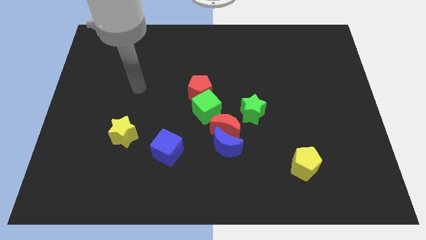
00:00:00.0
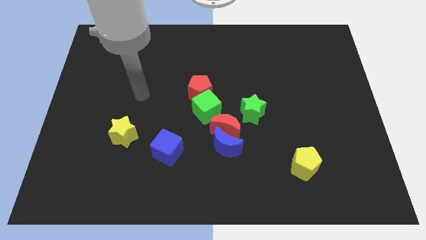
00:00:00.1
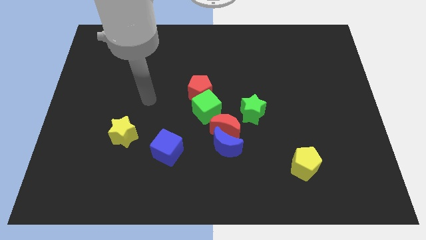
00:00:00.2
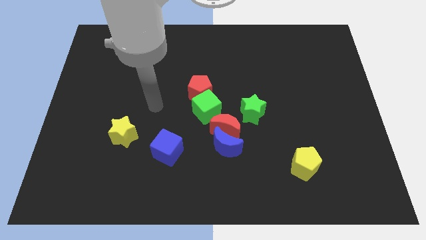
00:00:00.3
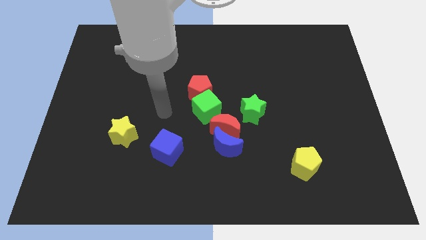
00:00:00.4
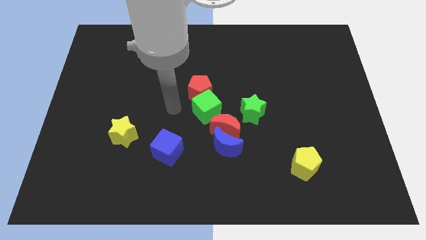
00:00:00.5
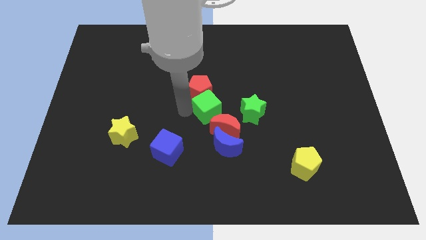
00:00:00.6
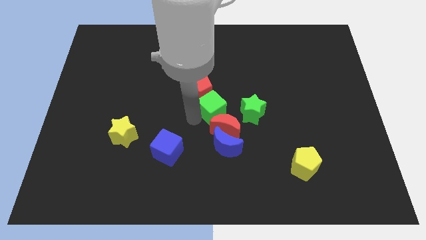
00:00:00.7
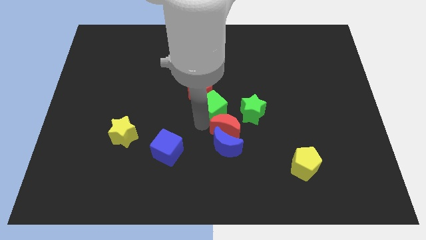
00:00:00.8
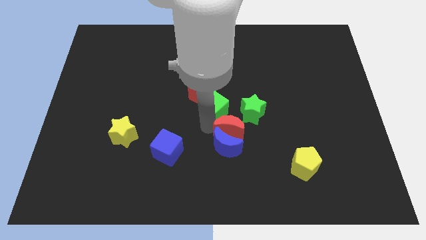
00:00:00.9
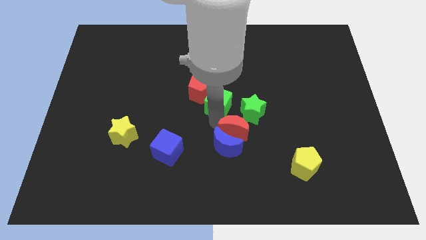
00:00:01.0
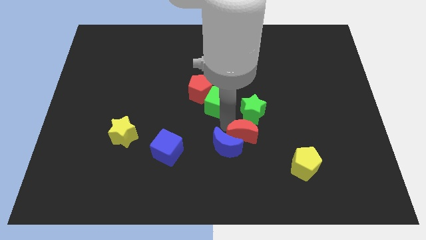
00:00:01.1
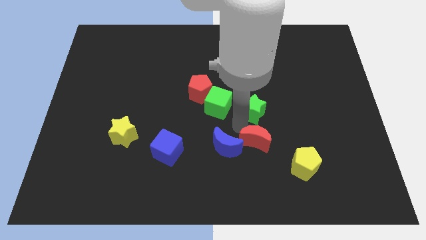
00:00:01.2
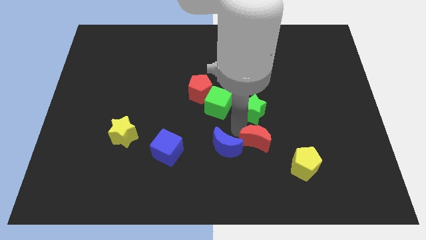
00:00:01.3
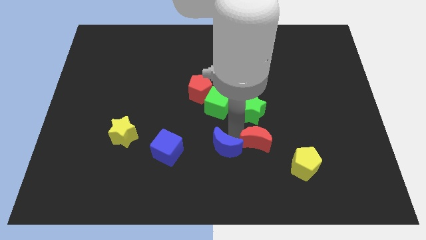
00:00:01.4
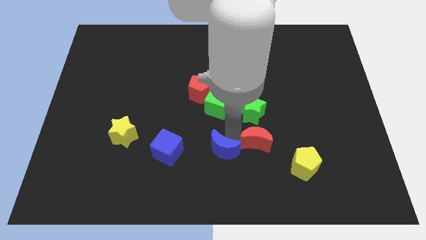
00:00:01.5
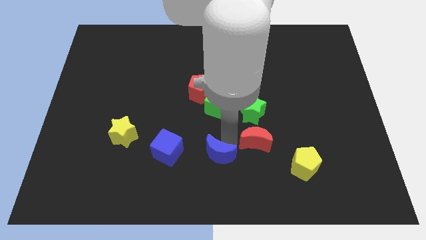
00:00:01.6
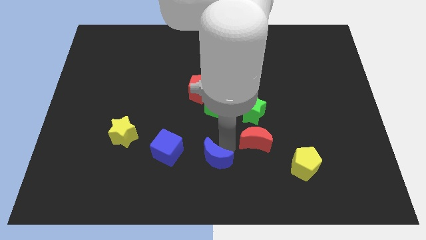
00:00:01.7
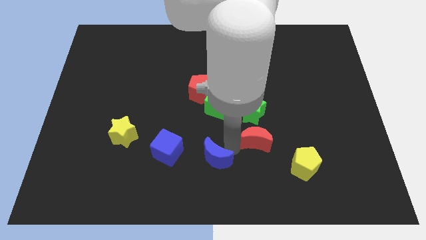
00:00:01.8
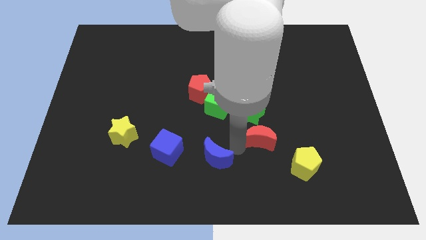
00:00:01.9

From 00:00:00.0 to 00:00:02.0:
separate the blue moon from the red moon

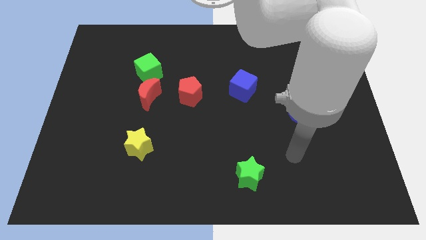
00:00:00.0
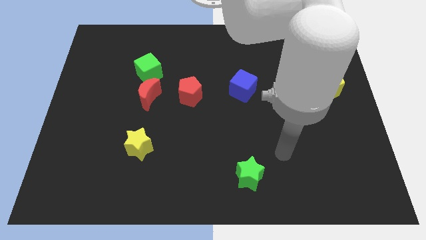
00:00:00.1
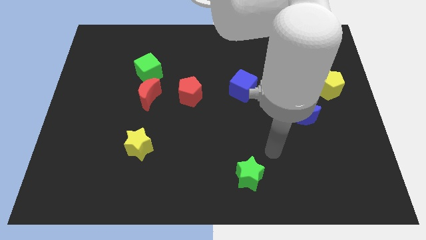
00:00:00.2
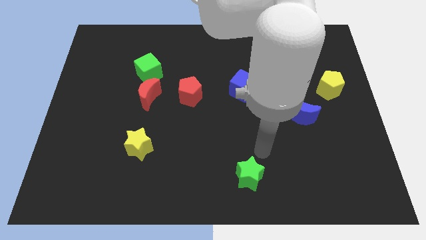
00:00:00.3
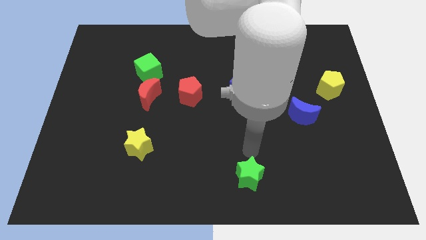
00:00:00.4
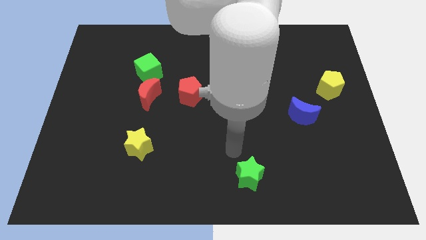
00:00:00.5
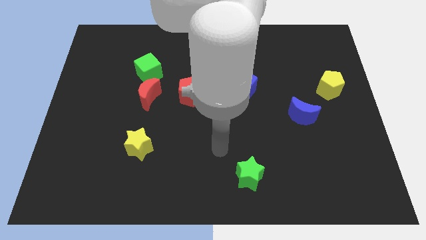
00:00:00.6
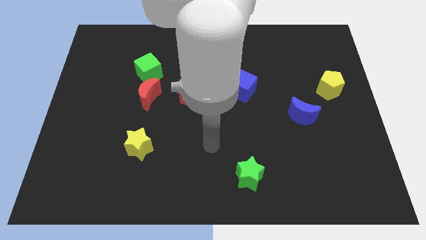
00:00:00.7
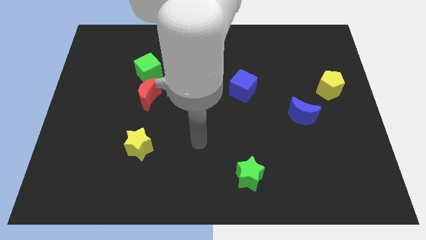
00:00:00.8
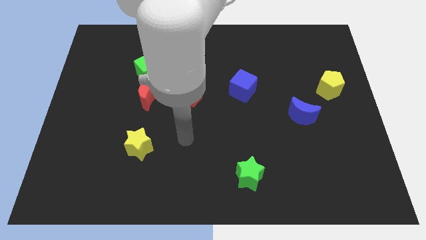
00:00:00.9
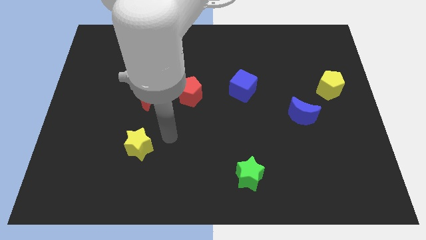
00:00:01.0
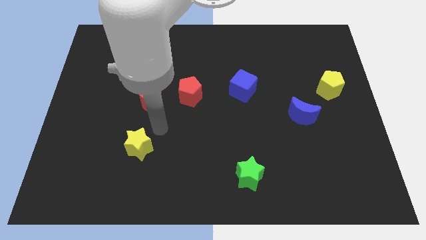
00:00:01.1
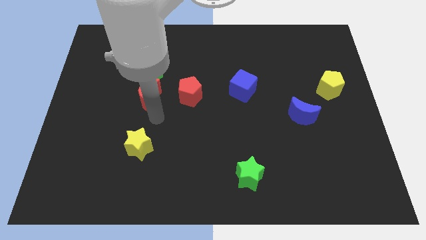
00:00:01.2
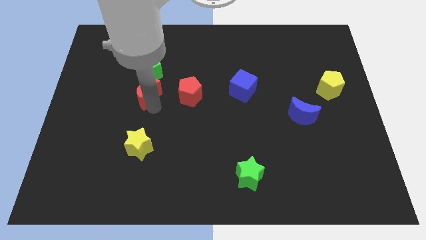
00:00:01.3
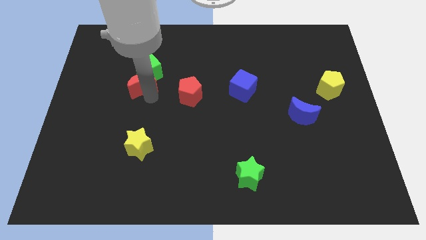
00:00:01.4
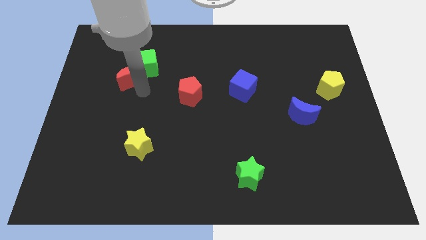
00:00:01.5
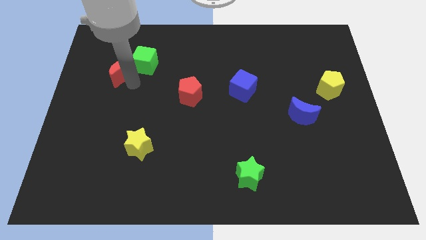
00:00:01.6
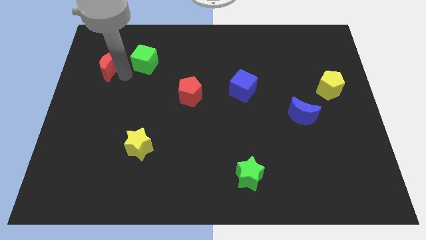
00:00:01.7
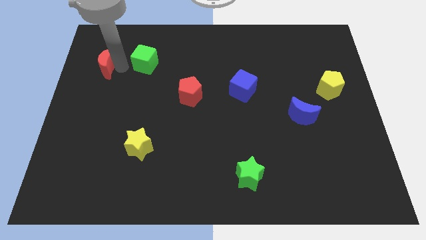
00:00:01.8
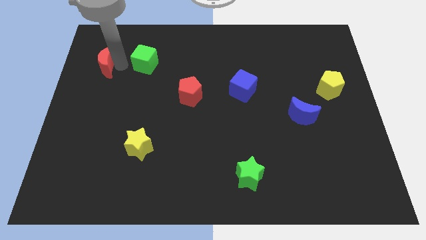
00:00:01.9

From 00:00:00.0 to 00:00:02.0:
pull the green cube apart from the red moon

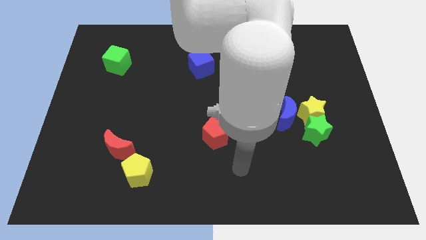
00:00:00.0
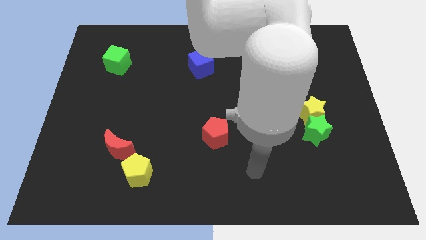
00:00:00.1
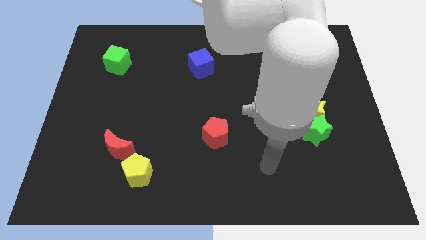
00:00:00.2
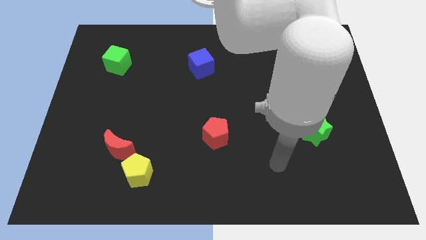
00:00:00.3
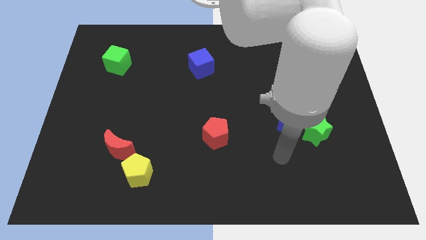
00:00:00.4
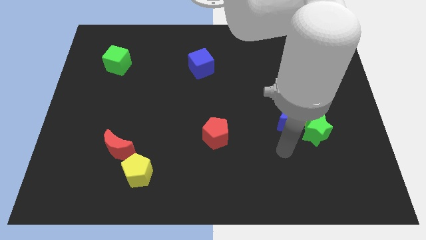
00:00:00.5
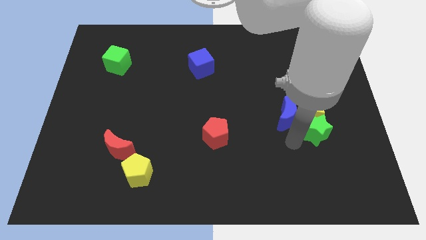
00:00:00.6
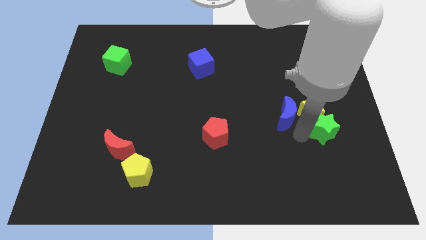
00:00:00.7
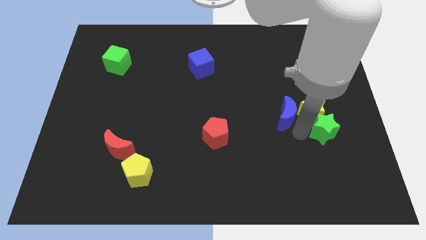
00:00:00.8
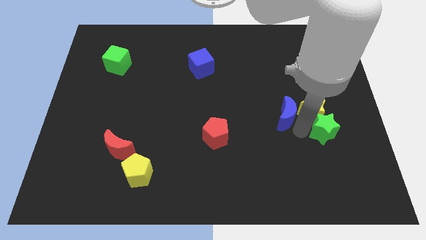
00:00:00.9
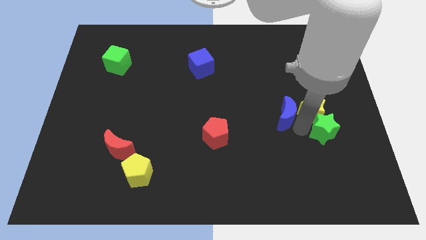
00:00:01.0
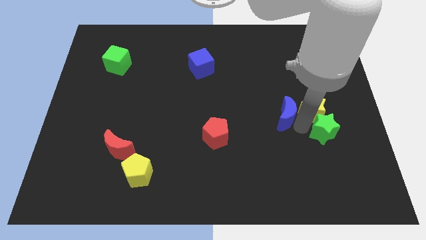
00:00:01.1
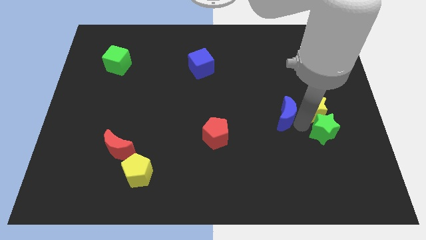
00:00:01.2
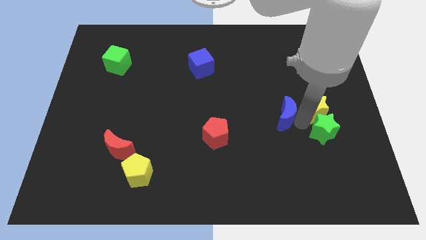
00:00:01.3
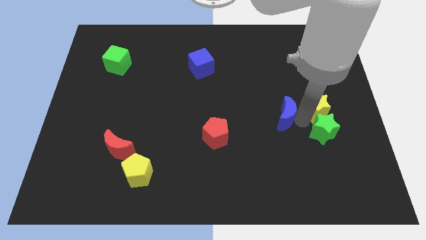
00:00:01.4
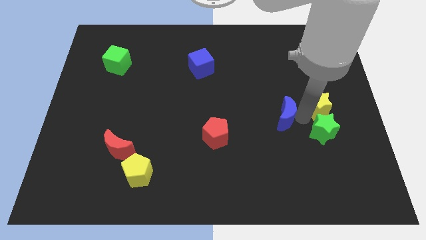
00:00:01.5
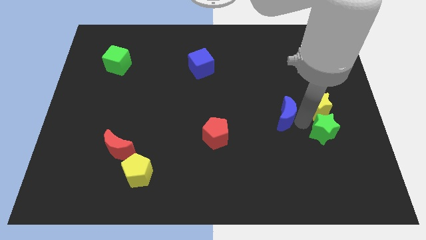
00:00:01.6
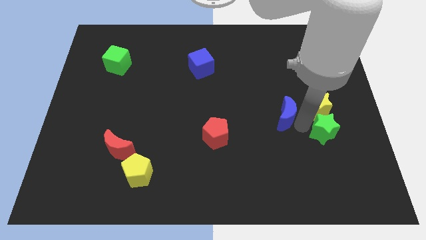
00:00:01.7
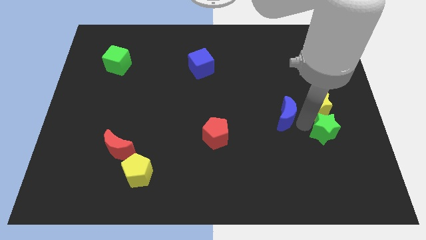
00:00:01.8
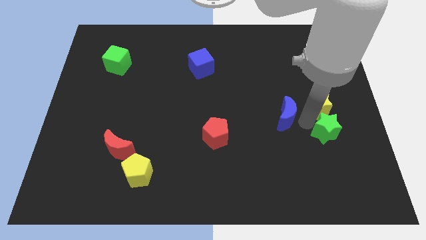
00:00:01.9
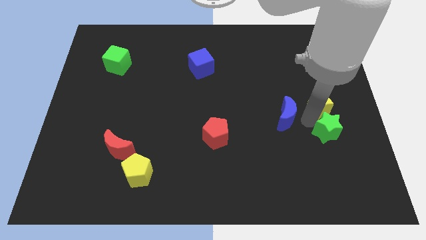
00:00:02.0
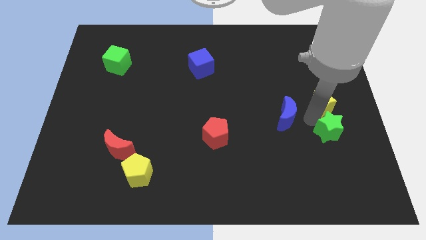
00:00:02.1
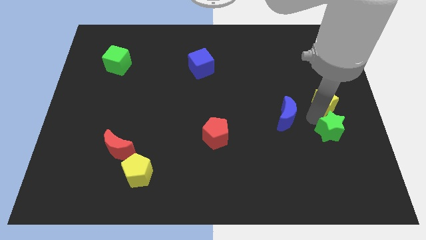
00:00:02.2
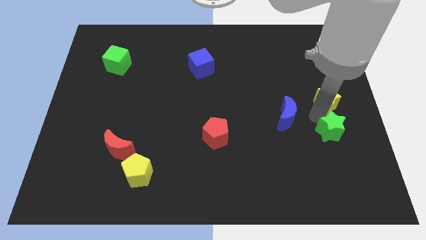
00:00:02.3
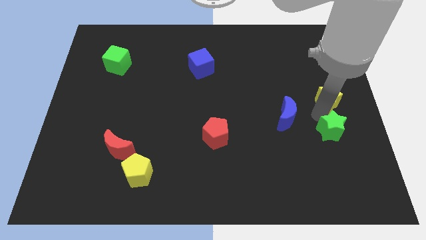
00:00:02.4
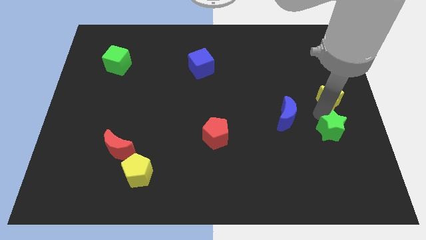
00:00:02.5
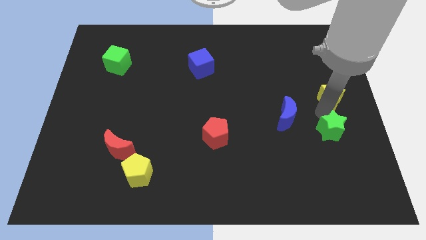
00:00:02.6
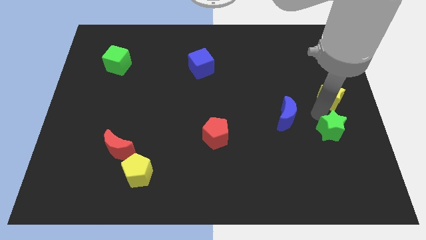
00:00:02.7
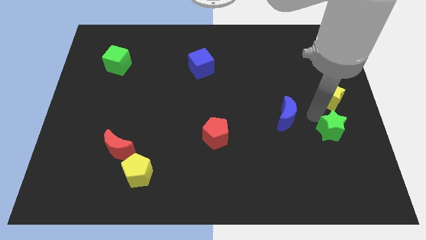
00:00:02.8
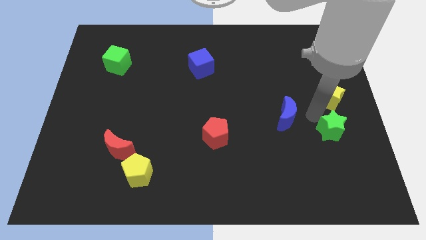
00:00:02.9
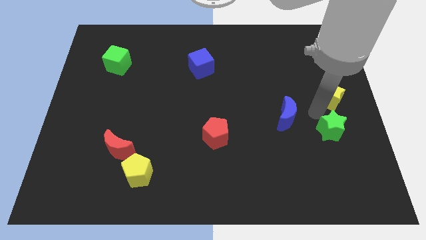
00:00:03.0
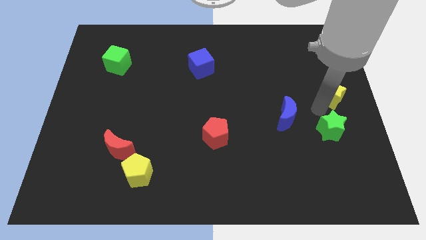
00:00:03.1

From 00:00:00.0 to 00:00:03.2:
separate the yellow star from the green star and blue moon

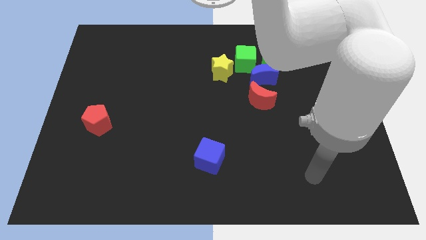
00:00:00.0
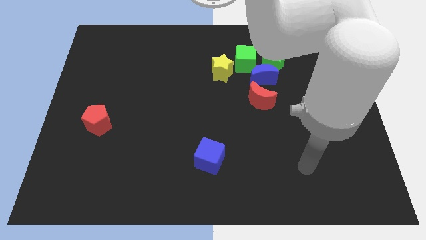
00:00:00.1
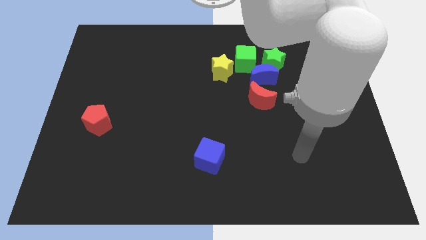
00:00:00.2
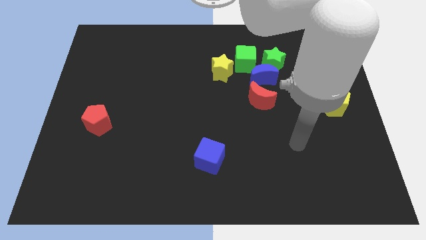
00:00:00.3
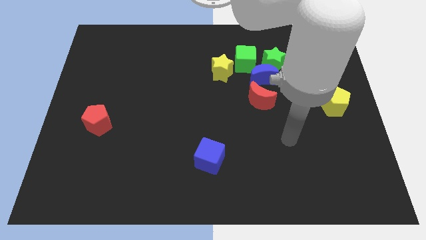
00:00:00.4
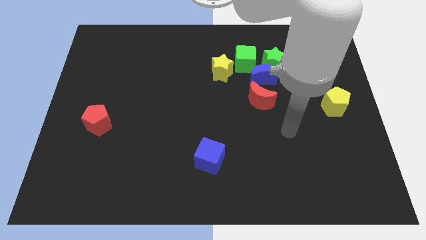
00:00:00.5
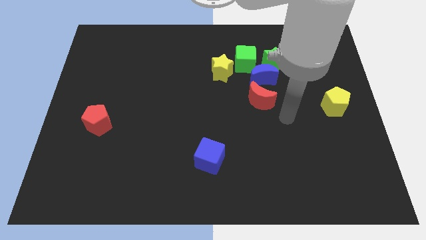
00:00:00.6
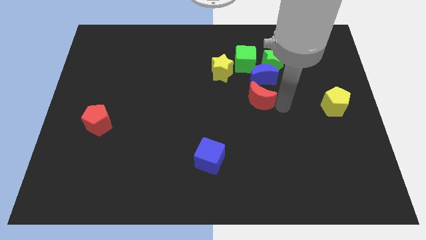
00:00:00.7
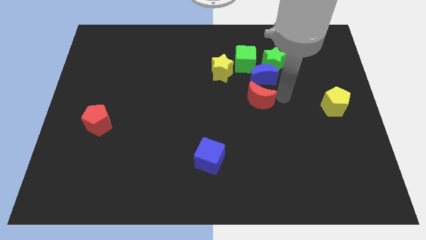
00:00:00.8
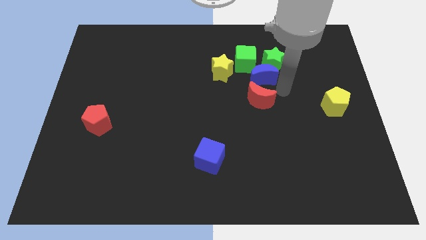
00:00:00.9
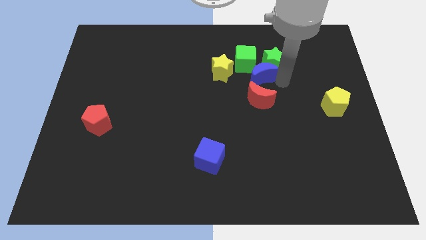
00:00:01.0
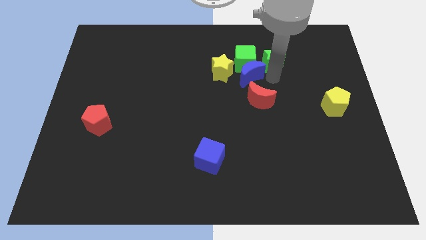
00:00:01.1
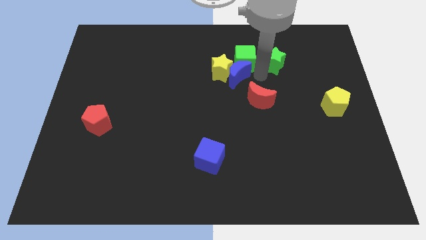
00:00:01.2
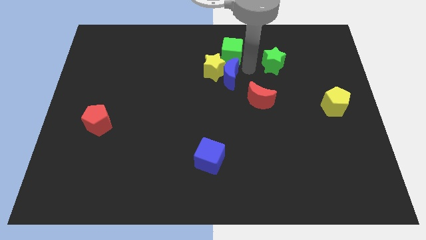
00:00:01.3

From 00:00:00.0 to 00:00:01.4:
separate the green star from the blue moon and green cube

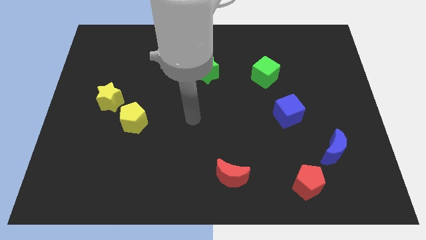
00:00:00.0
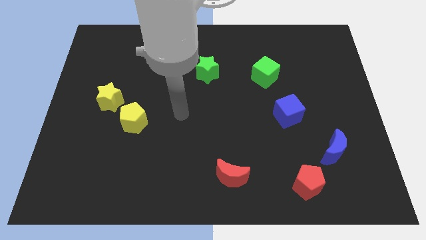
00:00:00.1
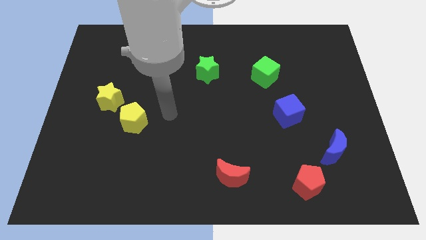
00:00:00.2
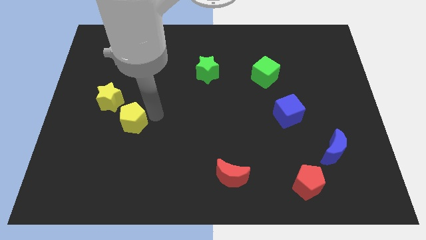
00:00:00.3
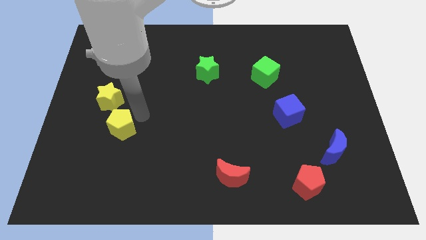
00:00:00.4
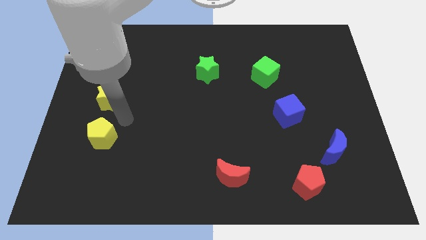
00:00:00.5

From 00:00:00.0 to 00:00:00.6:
pull the yellow star apart from the yellow pentagon
